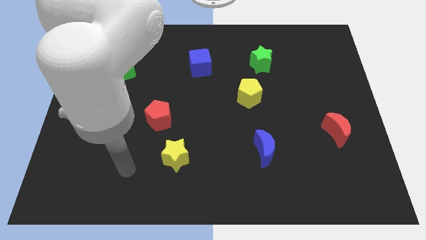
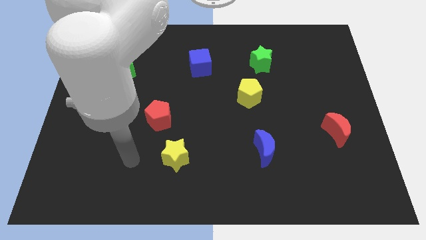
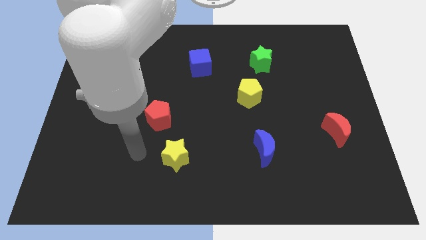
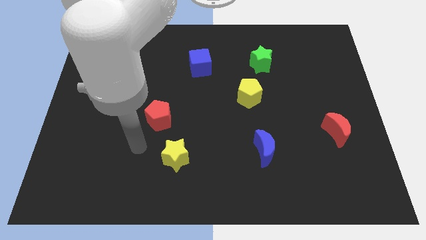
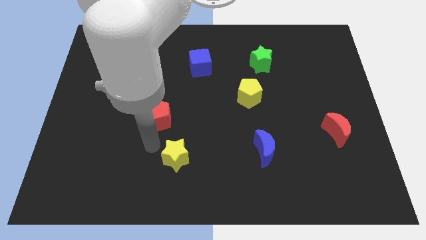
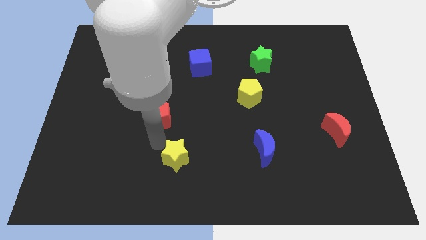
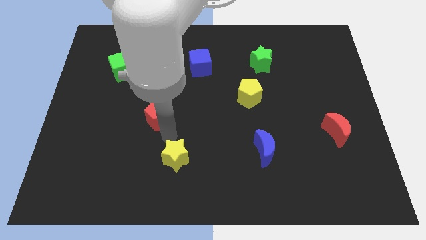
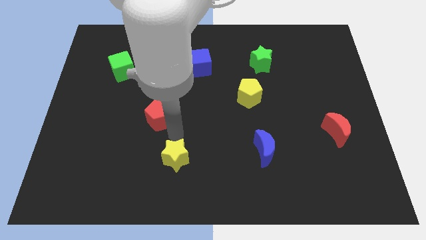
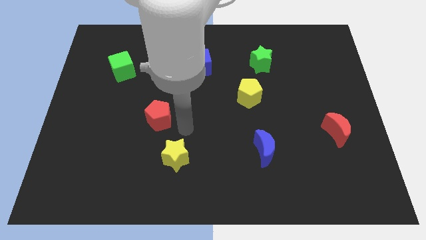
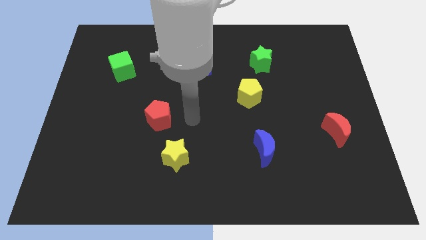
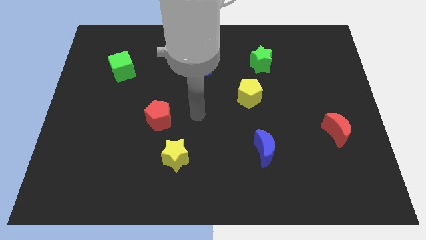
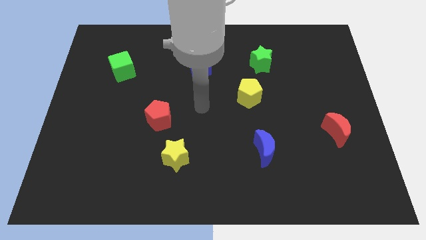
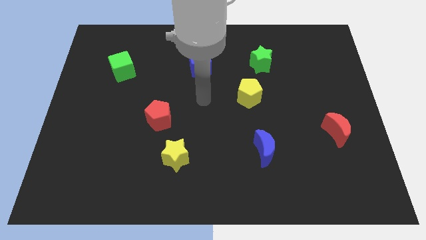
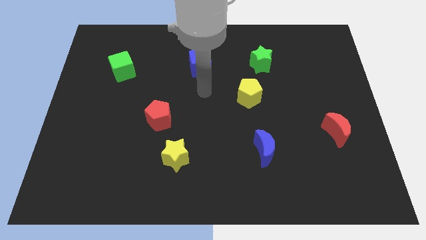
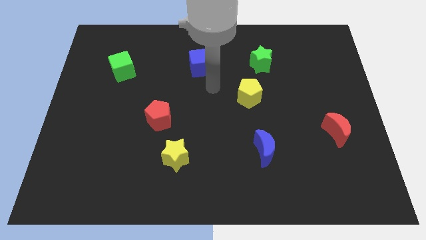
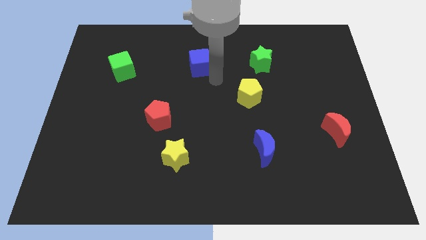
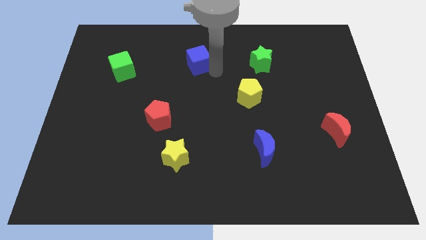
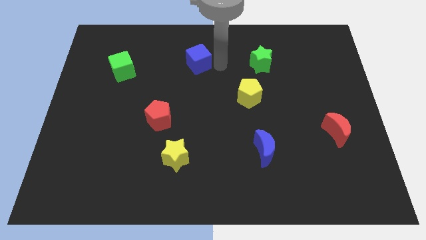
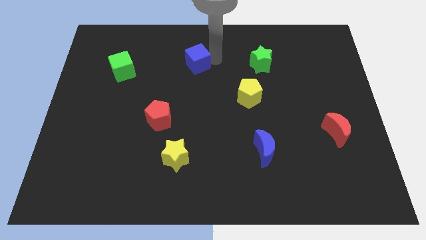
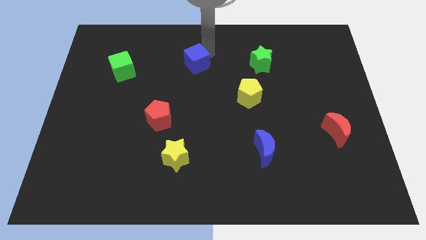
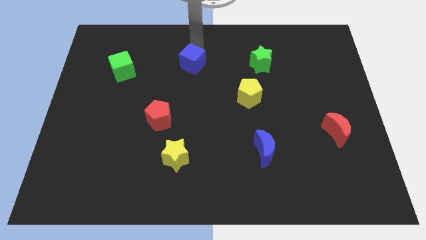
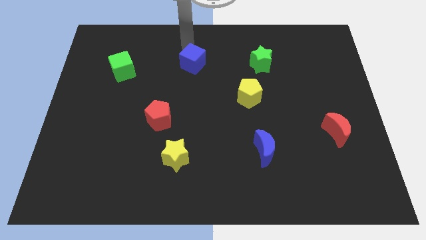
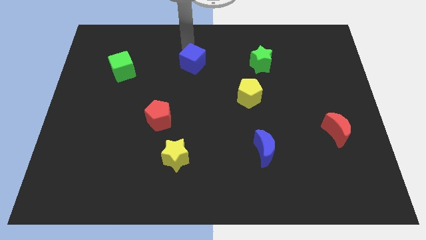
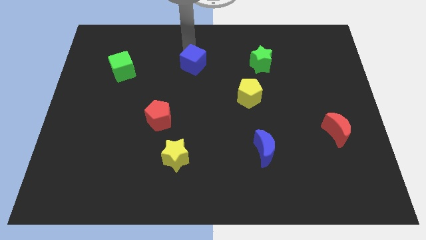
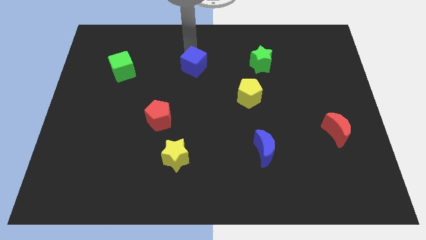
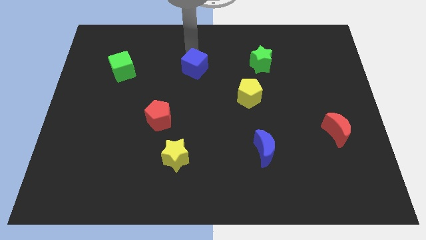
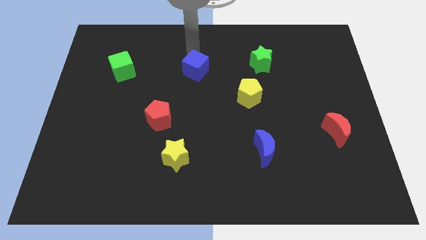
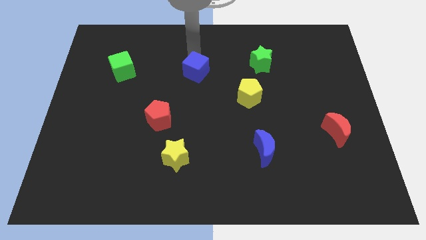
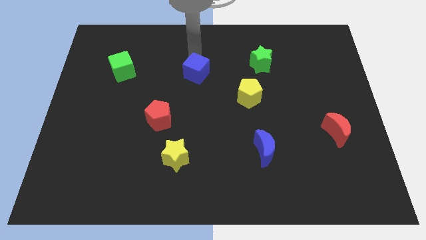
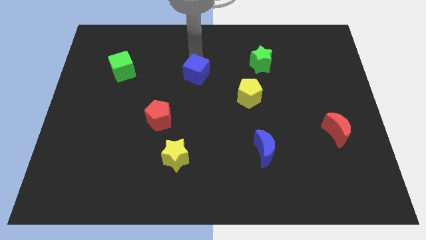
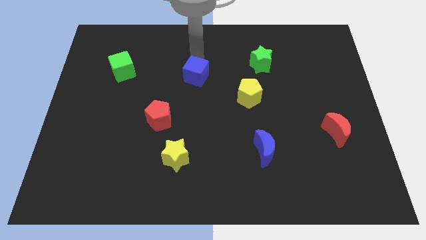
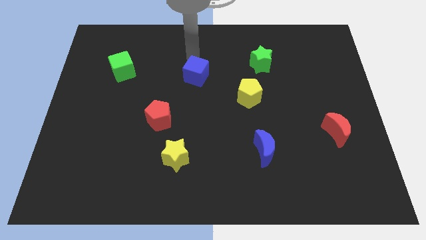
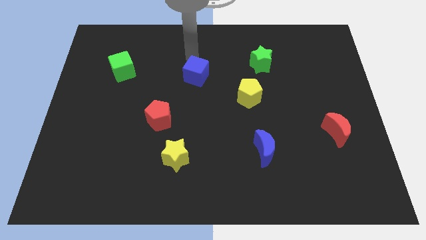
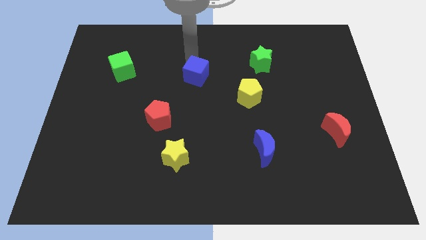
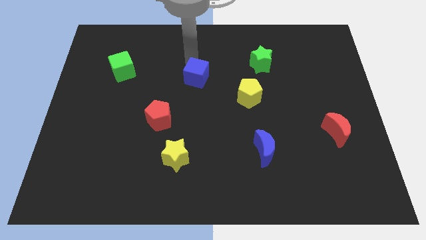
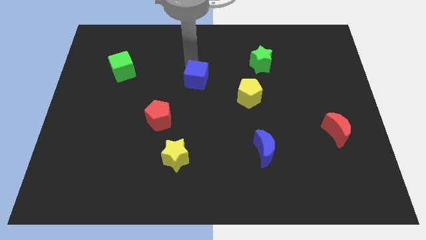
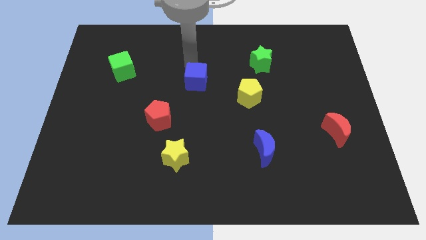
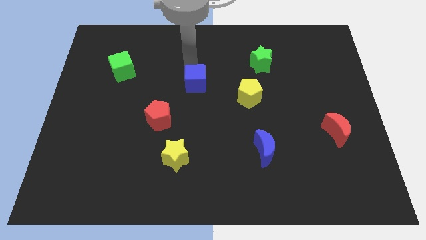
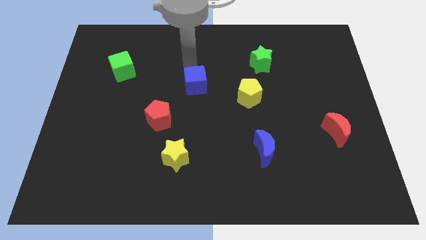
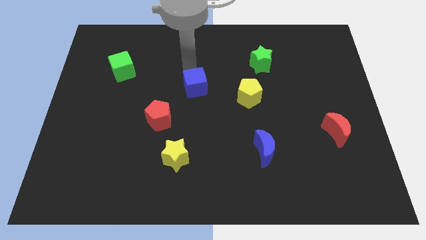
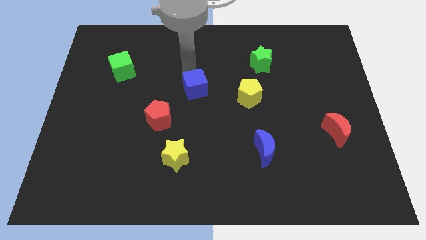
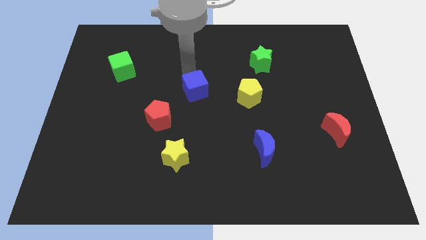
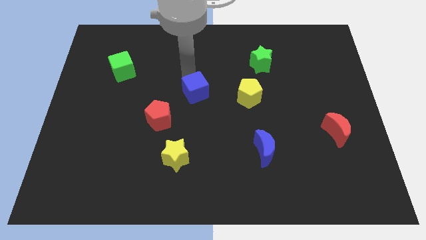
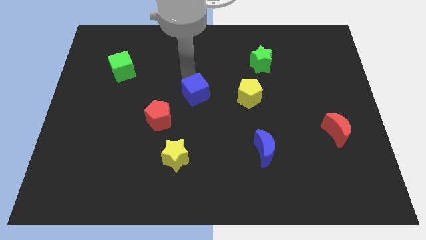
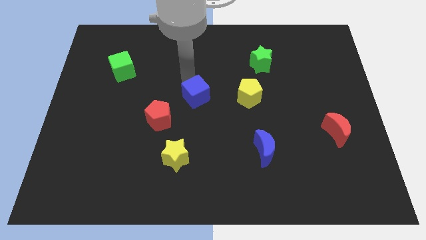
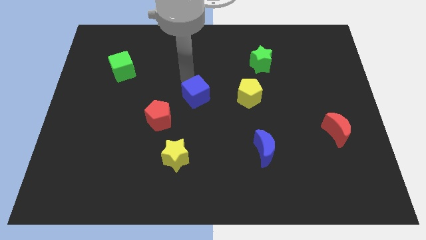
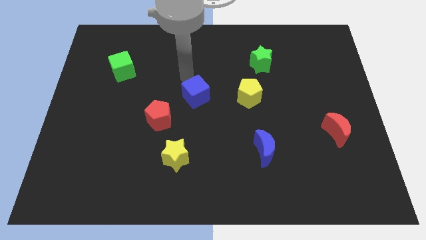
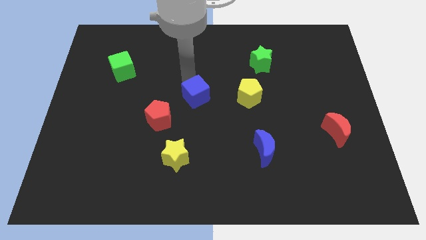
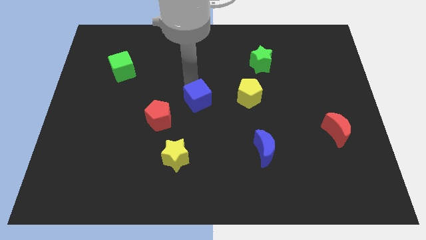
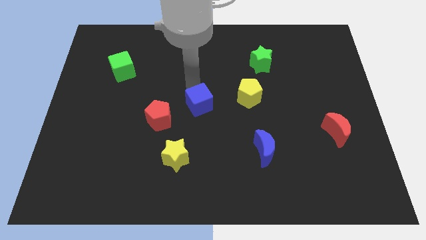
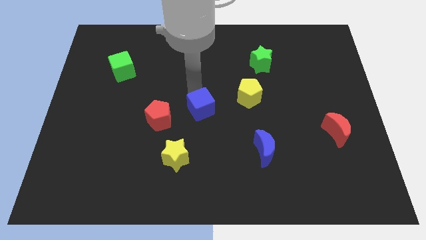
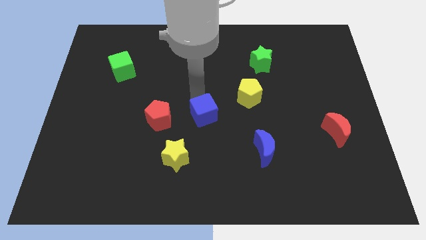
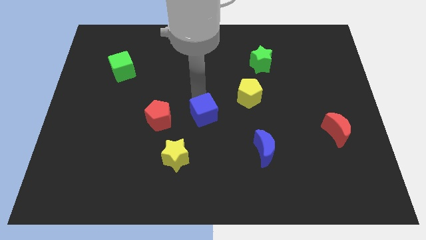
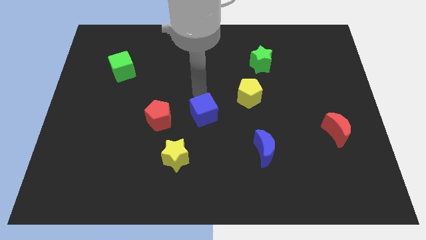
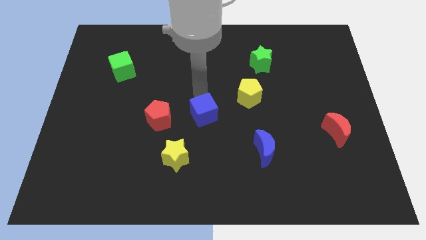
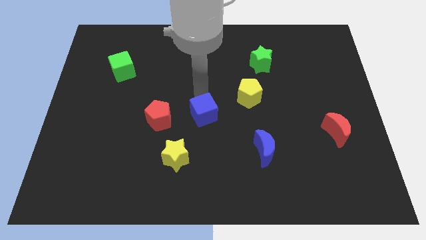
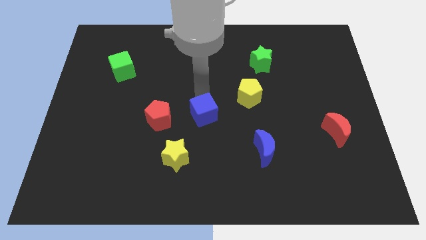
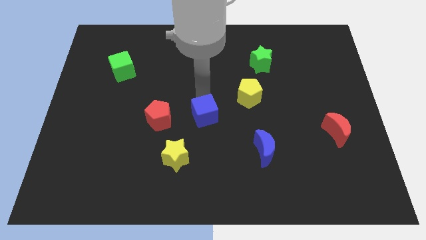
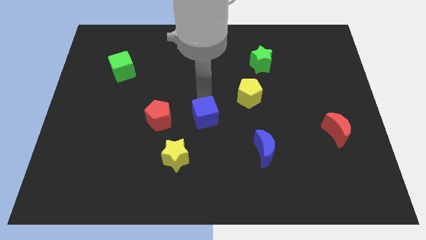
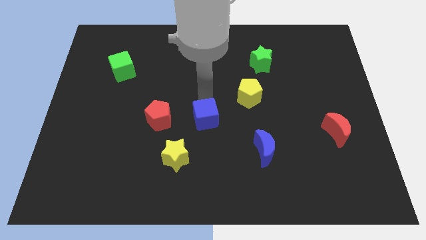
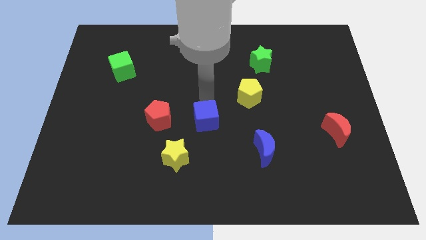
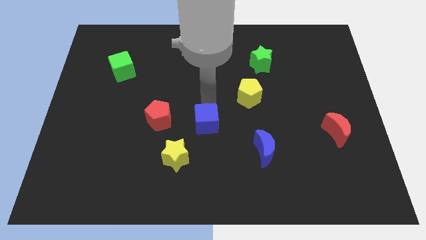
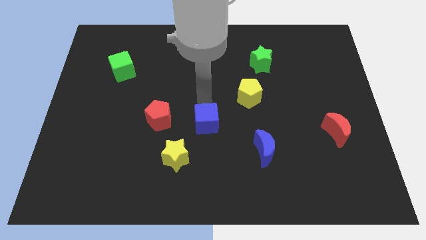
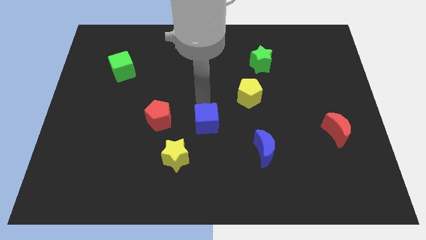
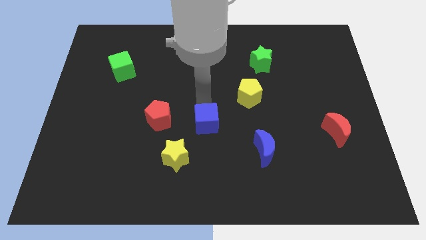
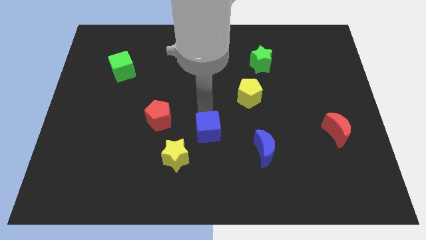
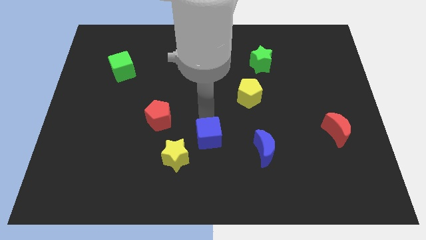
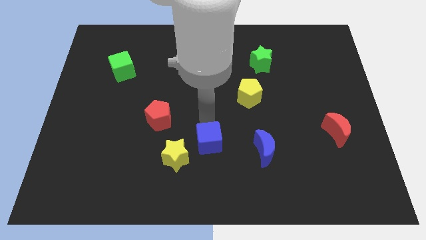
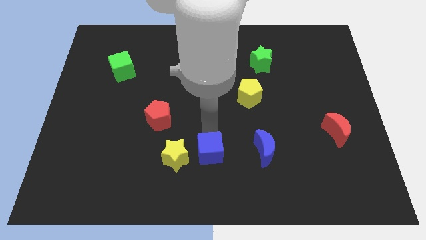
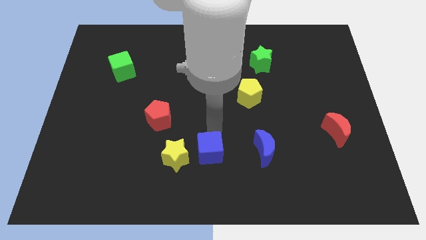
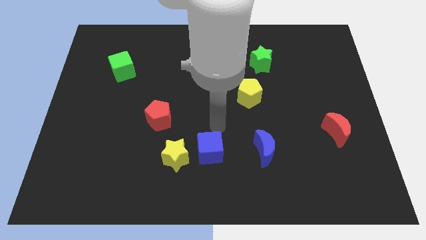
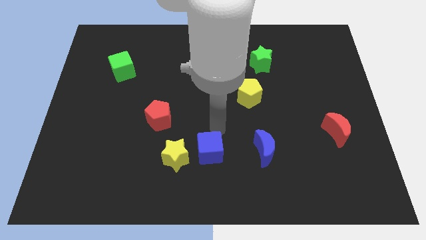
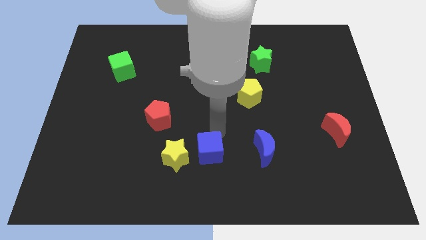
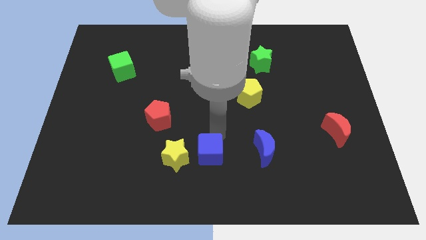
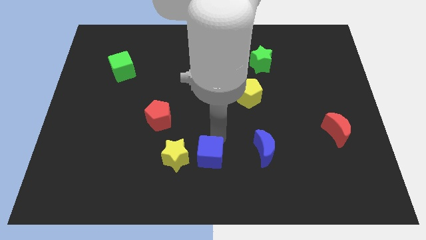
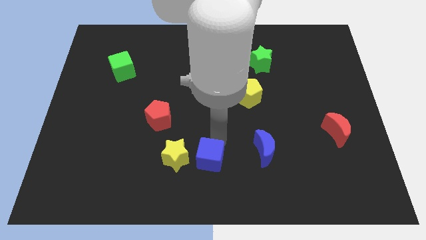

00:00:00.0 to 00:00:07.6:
push the blue cube diagonally down and to the right of the yellow star

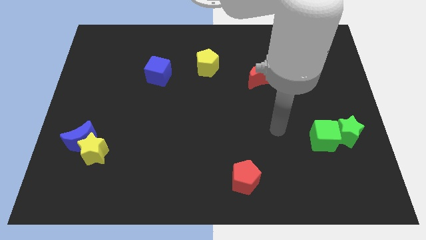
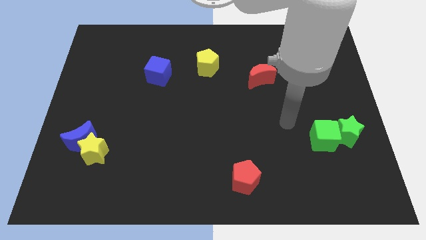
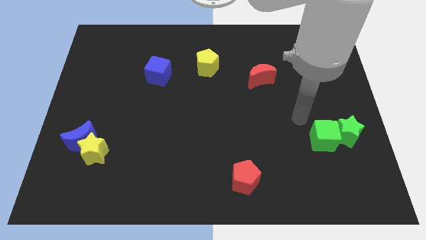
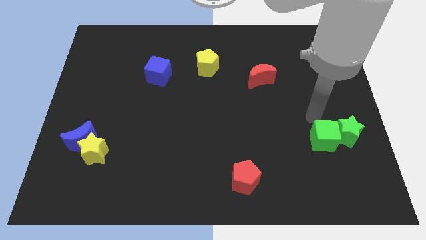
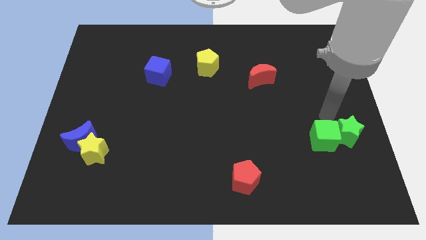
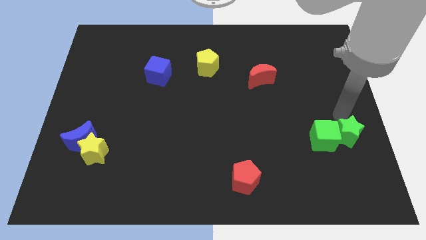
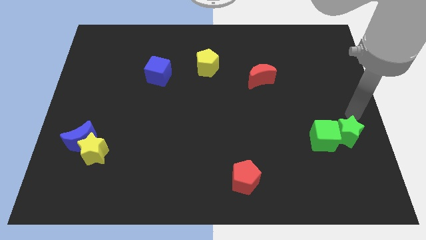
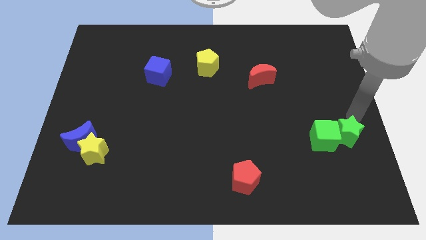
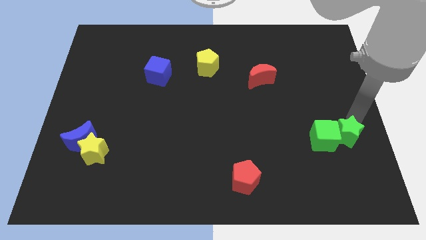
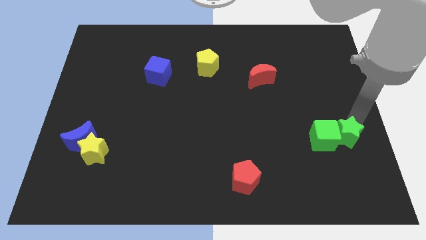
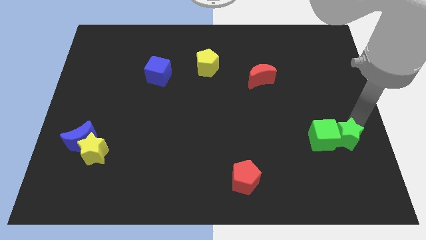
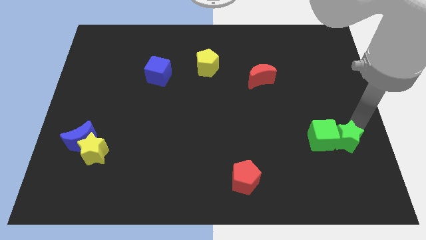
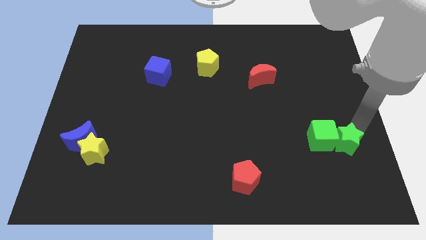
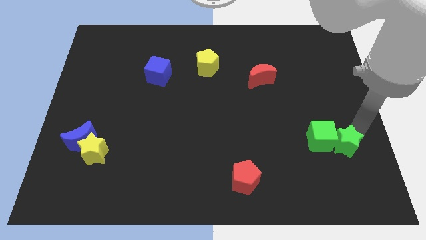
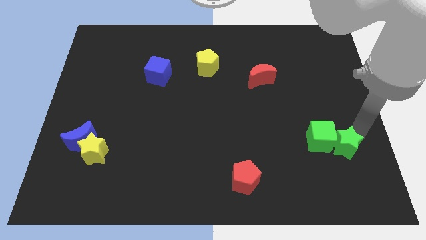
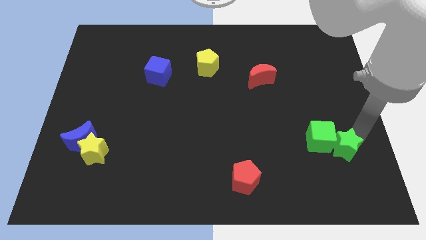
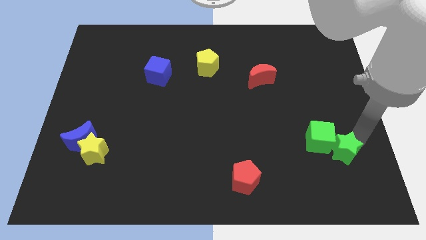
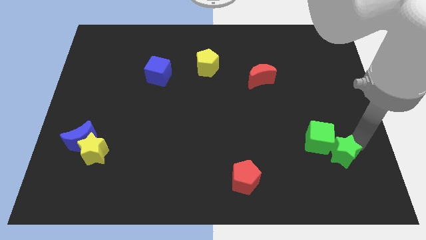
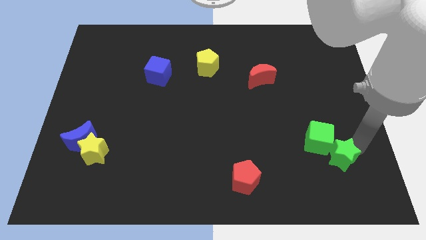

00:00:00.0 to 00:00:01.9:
put the green star below the green cube
